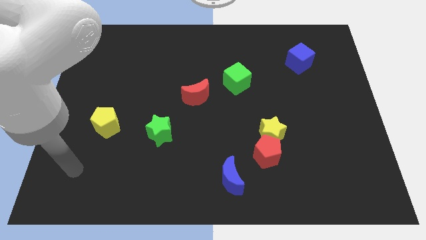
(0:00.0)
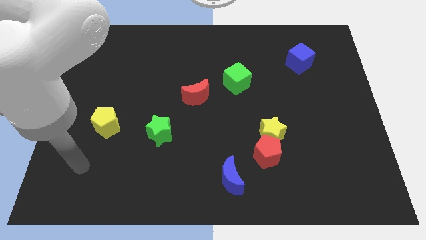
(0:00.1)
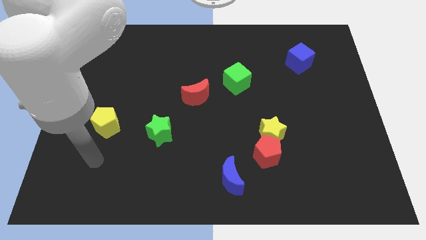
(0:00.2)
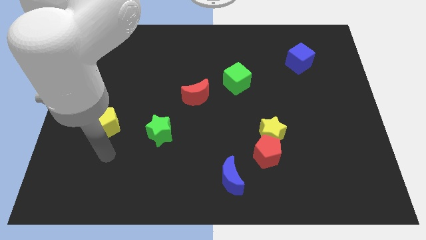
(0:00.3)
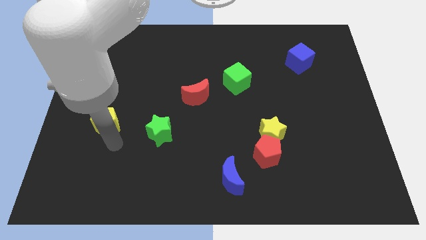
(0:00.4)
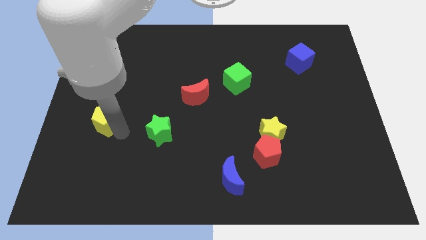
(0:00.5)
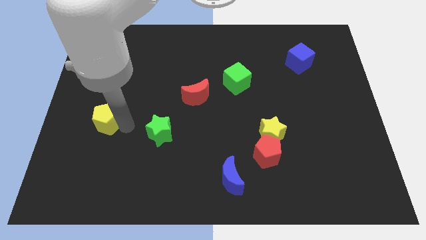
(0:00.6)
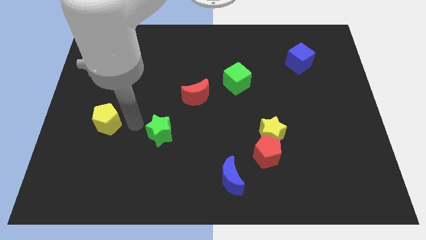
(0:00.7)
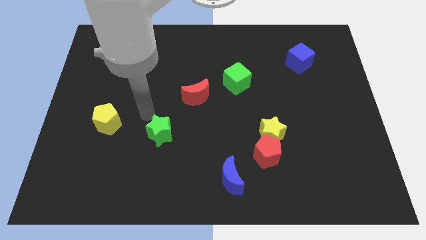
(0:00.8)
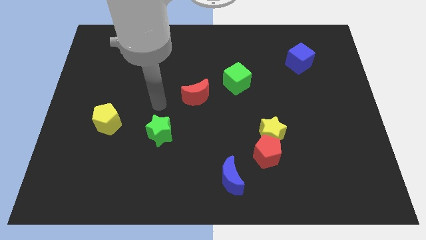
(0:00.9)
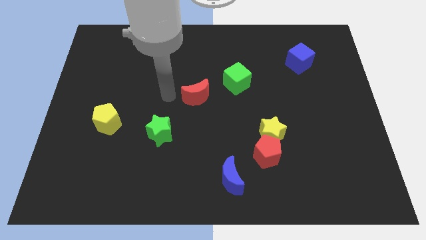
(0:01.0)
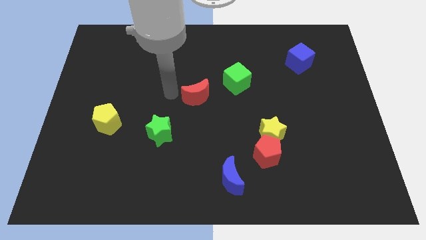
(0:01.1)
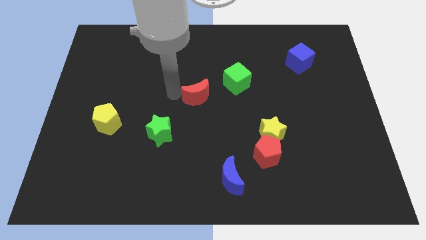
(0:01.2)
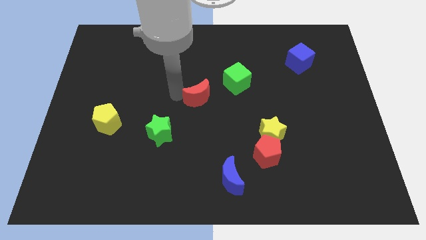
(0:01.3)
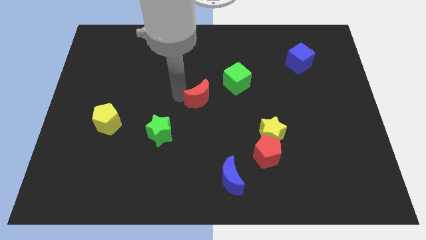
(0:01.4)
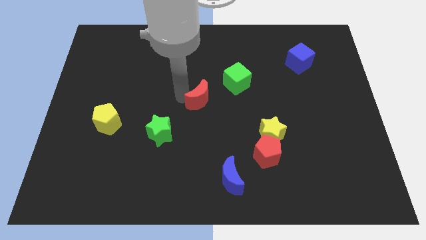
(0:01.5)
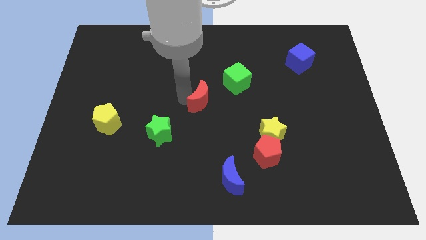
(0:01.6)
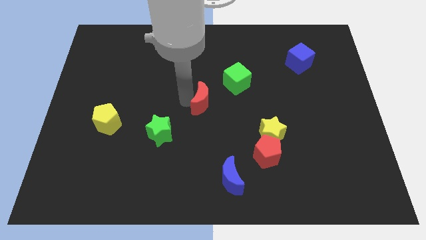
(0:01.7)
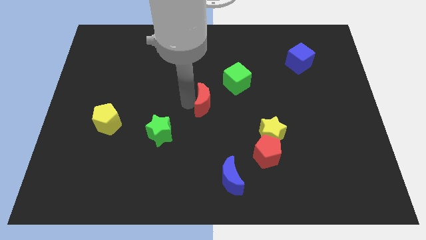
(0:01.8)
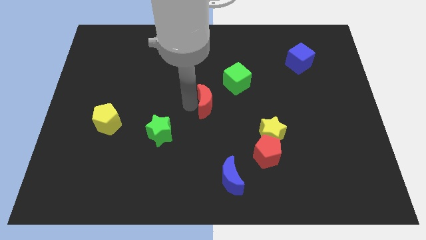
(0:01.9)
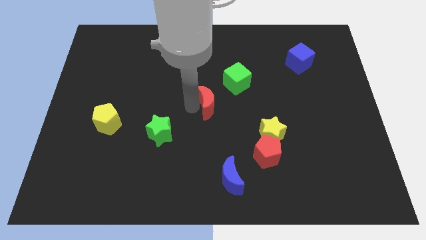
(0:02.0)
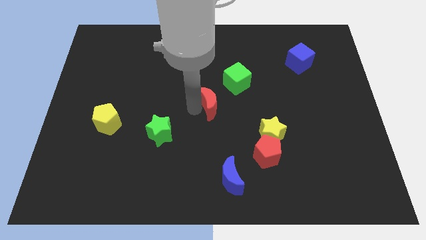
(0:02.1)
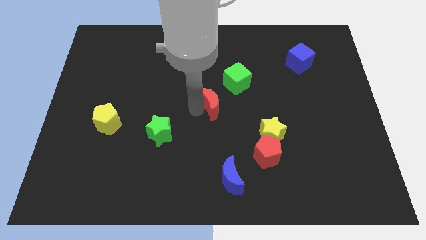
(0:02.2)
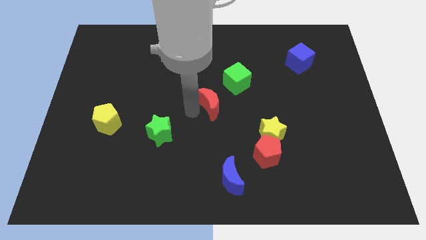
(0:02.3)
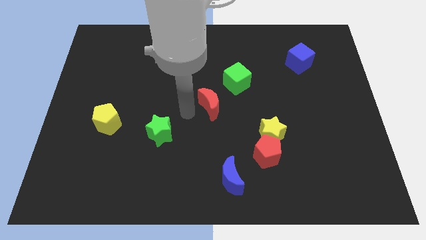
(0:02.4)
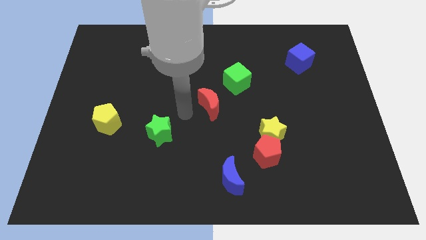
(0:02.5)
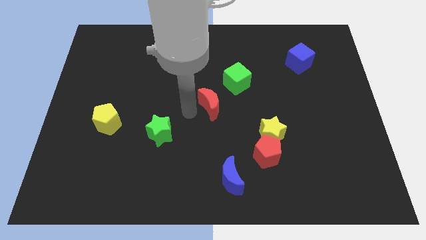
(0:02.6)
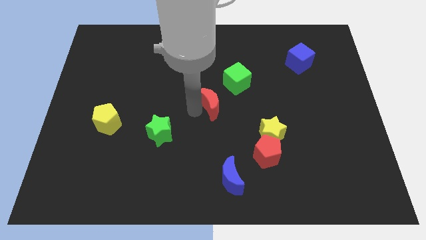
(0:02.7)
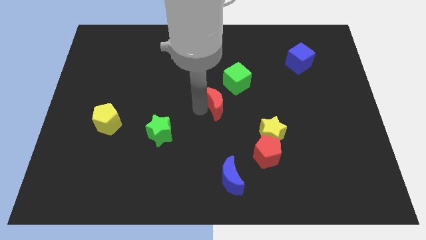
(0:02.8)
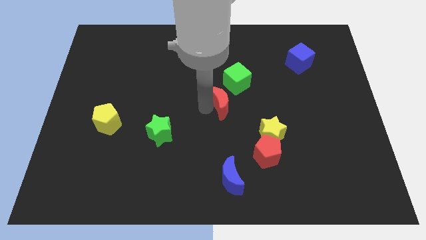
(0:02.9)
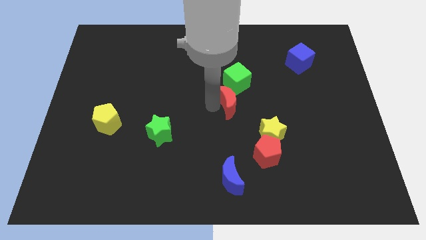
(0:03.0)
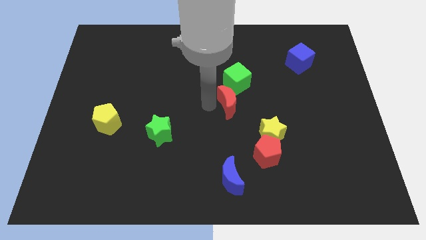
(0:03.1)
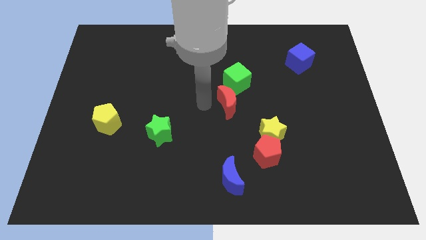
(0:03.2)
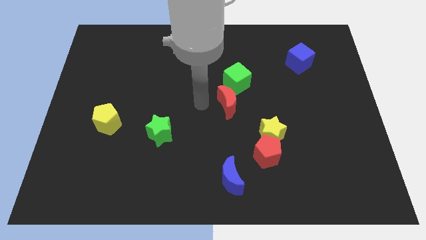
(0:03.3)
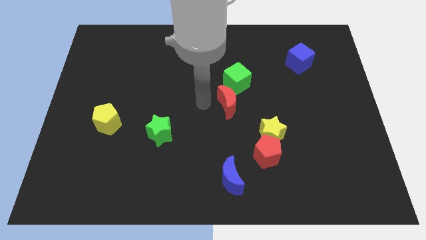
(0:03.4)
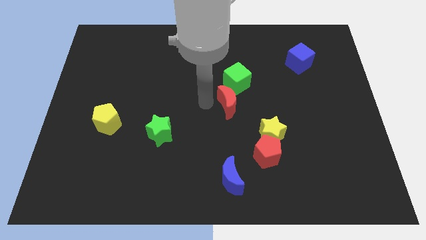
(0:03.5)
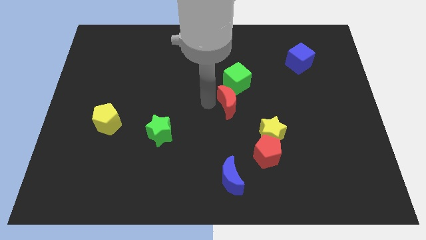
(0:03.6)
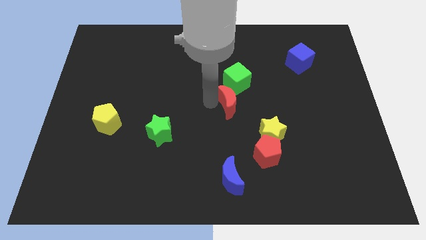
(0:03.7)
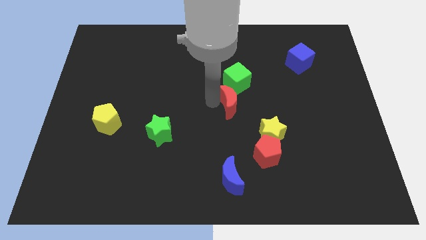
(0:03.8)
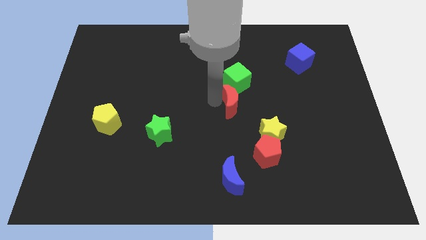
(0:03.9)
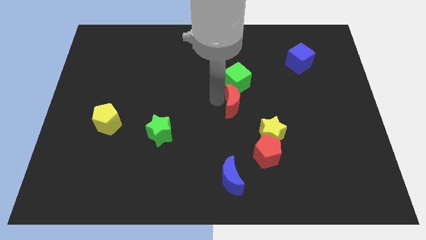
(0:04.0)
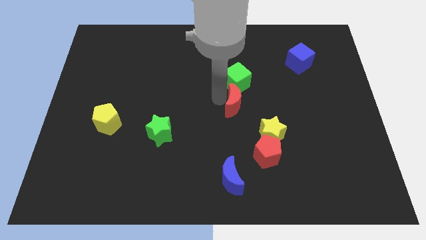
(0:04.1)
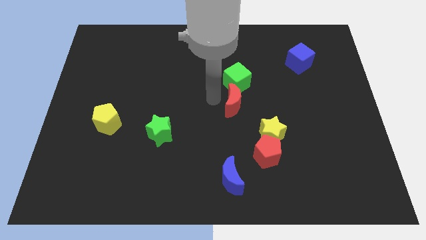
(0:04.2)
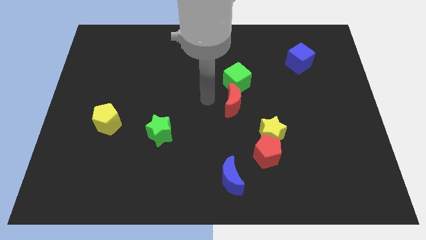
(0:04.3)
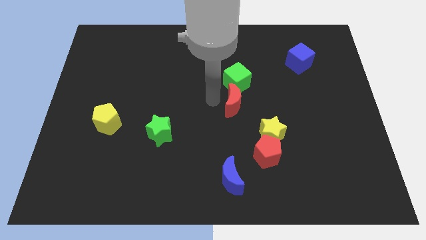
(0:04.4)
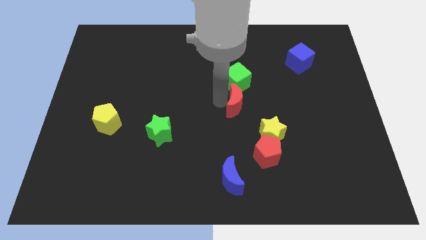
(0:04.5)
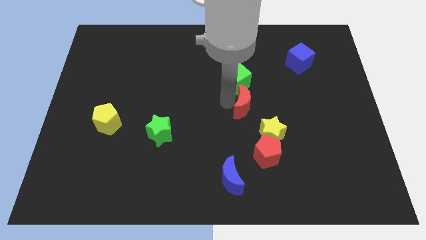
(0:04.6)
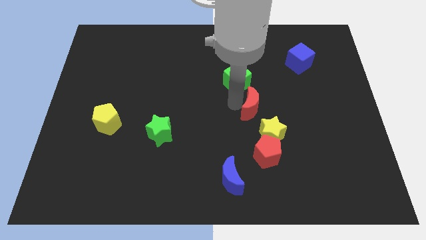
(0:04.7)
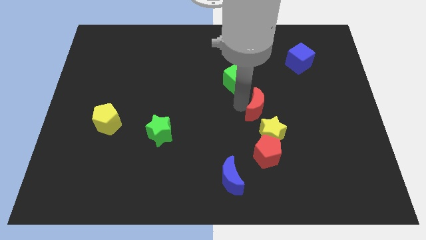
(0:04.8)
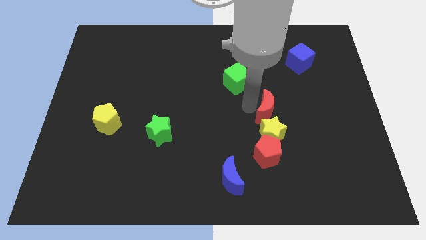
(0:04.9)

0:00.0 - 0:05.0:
push the red moon diagonally up and to the right of the yellow star

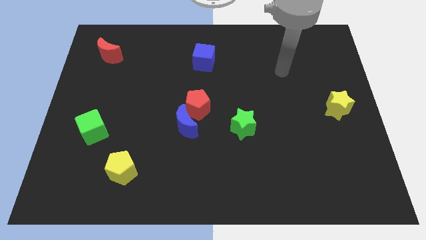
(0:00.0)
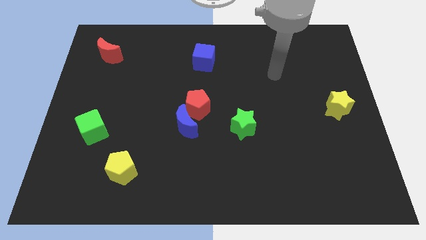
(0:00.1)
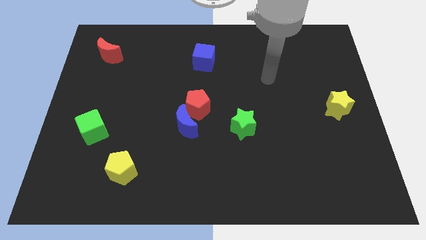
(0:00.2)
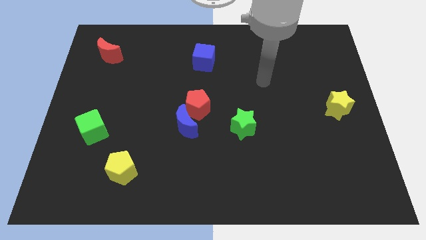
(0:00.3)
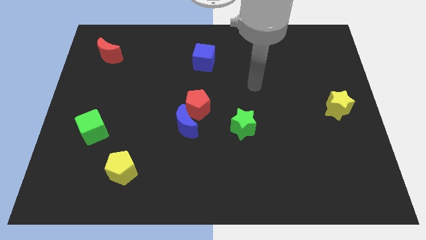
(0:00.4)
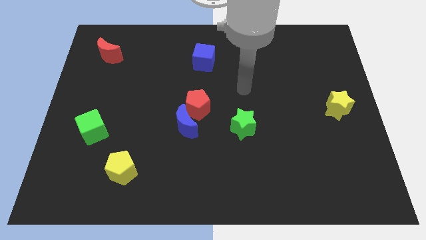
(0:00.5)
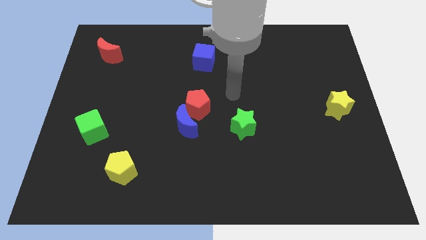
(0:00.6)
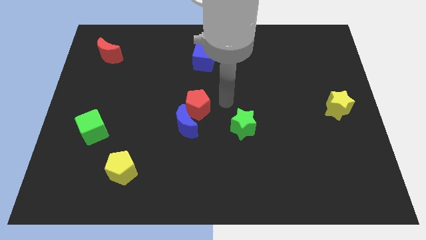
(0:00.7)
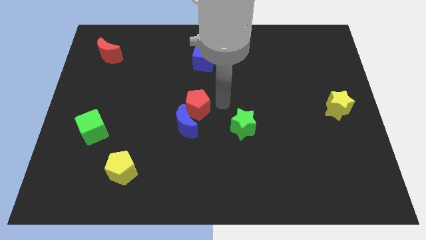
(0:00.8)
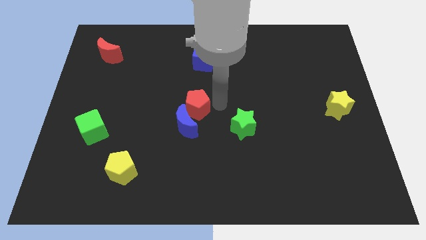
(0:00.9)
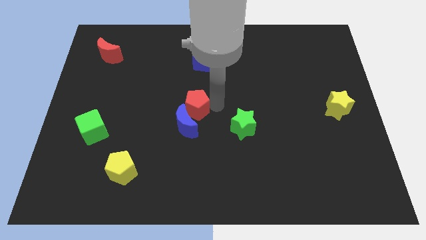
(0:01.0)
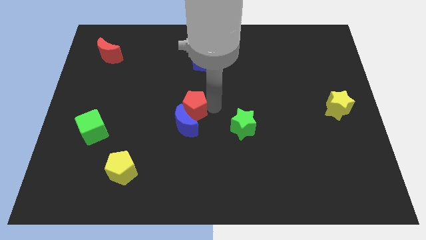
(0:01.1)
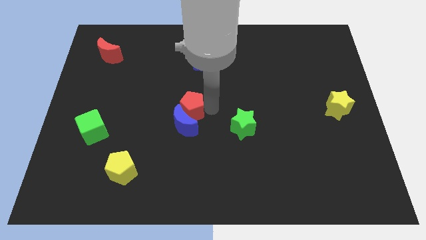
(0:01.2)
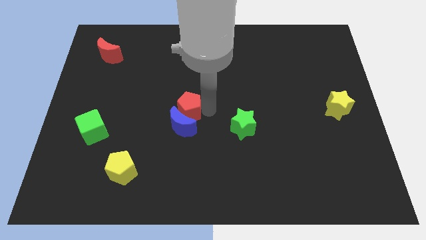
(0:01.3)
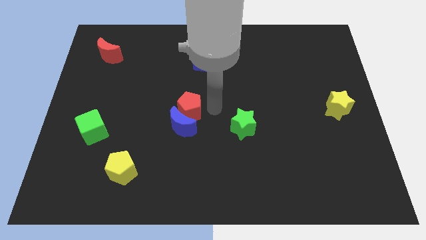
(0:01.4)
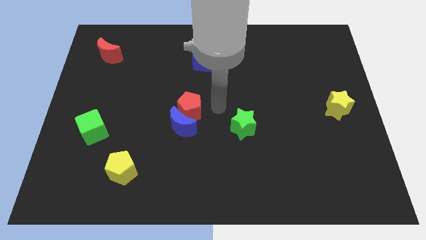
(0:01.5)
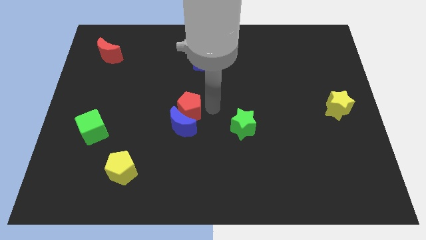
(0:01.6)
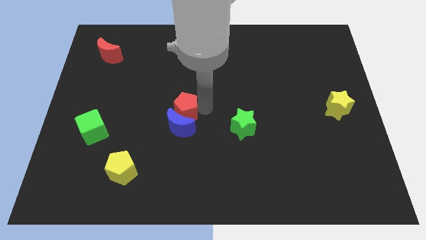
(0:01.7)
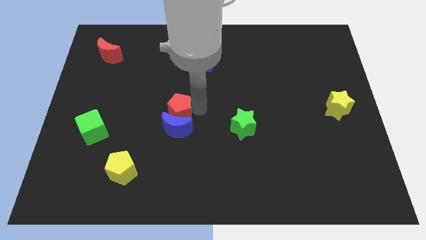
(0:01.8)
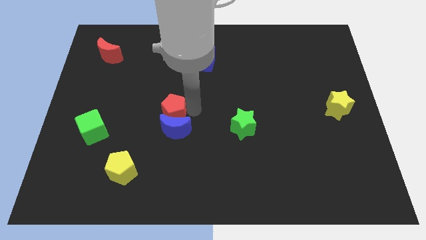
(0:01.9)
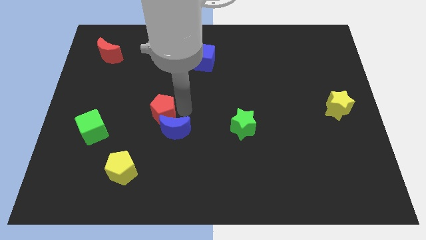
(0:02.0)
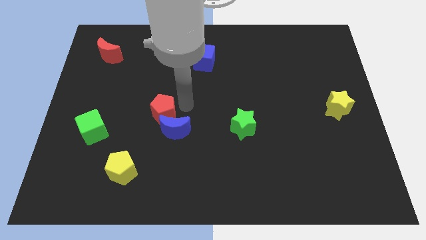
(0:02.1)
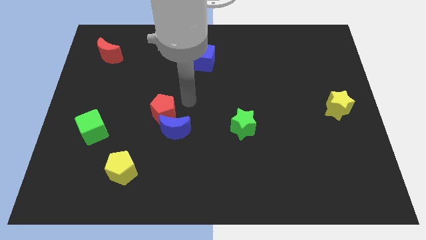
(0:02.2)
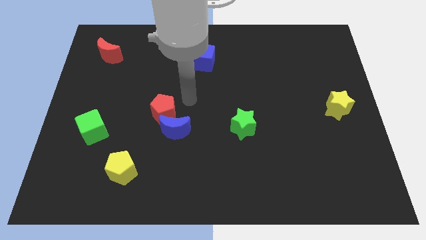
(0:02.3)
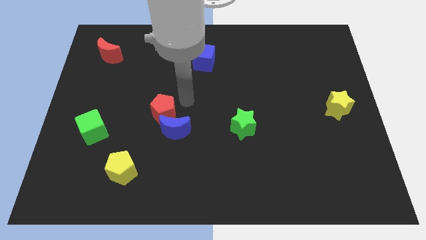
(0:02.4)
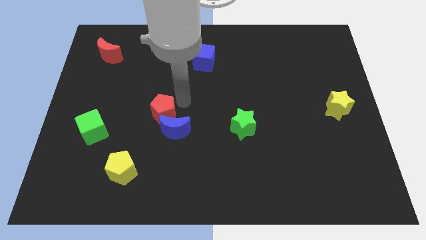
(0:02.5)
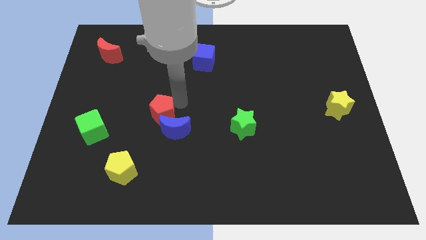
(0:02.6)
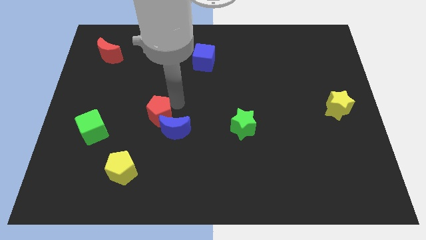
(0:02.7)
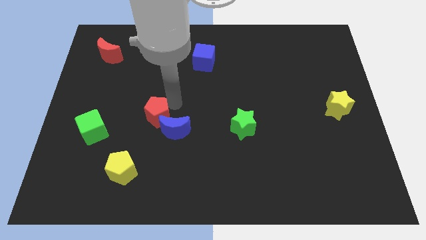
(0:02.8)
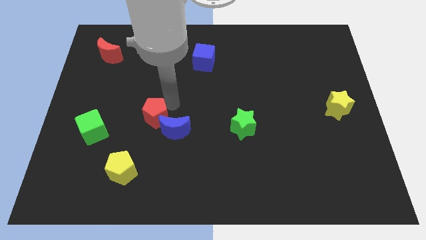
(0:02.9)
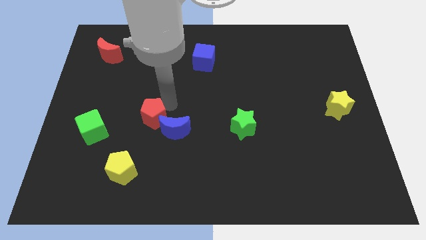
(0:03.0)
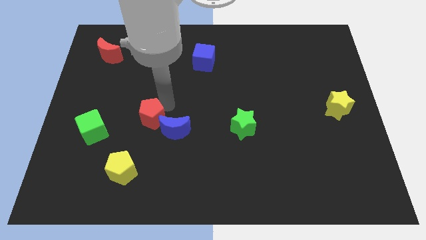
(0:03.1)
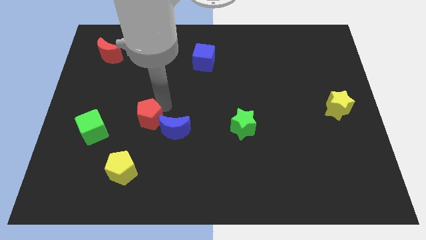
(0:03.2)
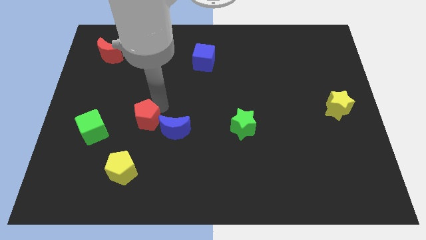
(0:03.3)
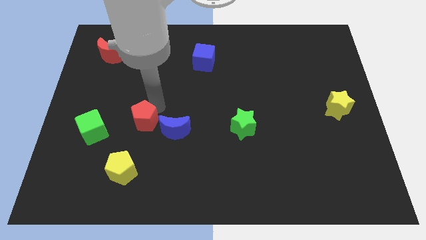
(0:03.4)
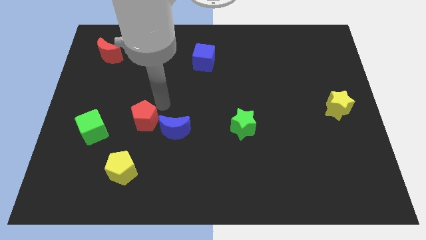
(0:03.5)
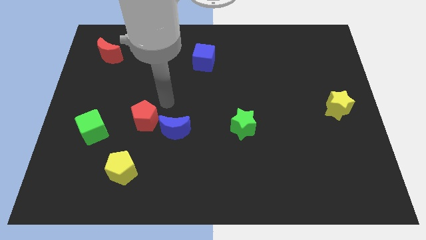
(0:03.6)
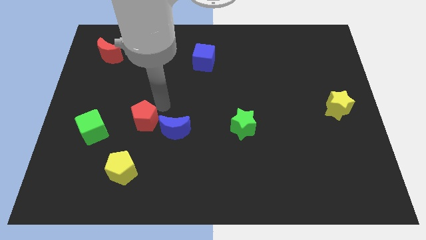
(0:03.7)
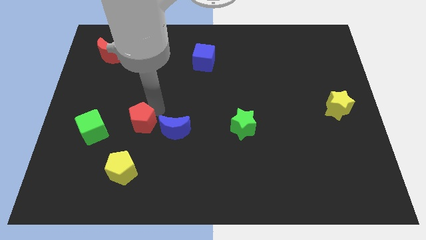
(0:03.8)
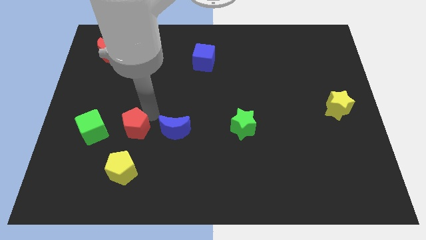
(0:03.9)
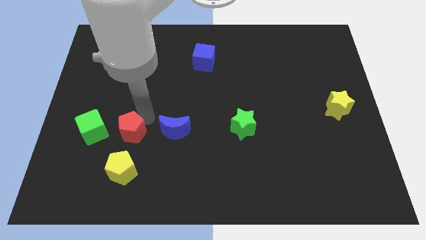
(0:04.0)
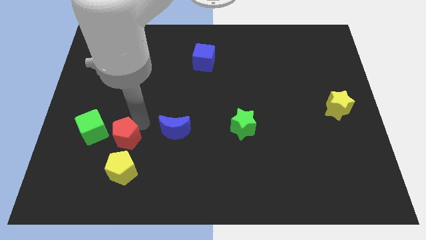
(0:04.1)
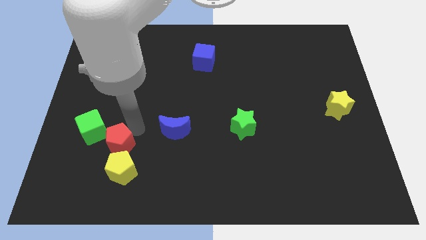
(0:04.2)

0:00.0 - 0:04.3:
move the red pentagon to the top left side of the yellow pentagon
